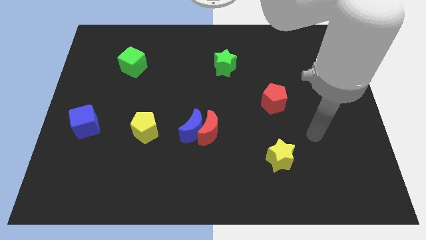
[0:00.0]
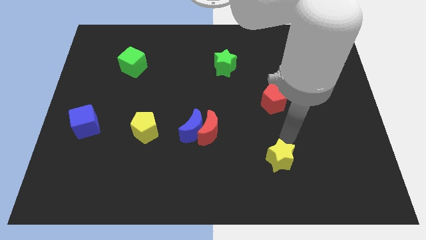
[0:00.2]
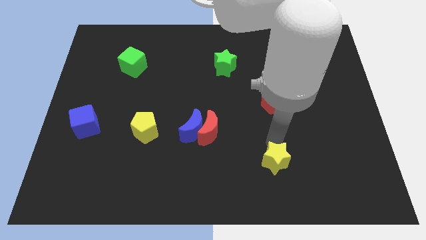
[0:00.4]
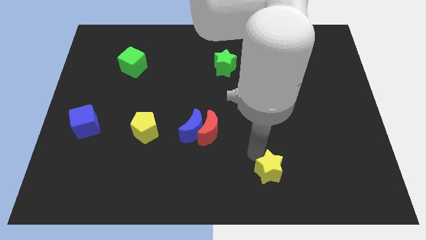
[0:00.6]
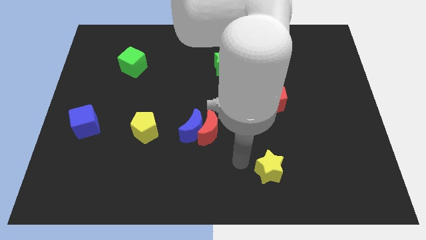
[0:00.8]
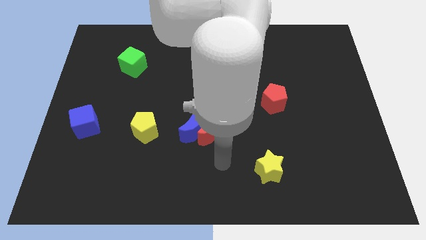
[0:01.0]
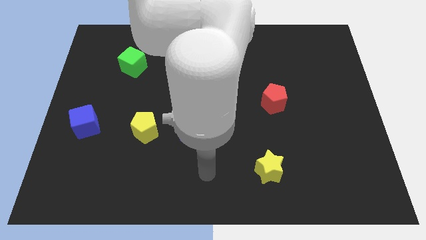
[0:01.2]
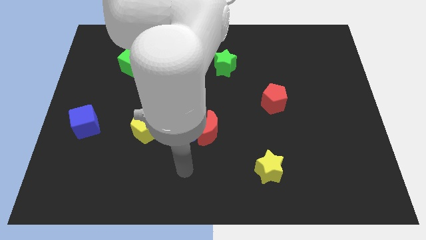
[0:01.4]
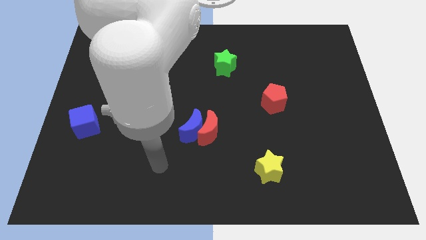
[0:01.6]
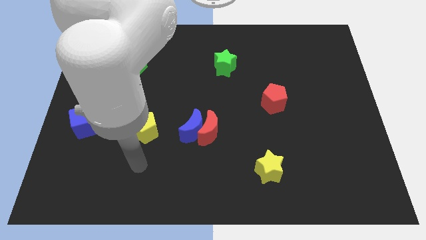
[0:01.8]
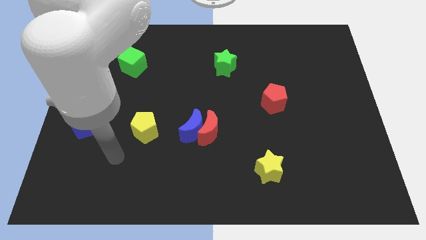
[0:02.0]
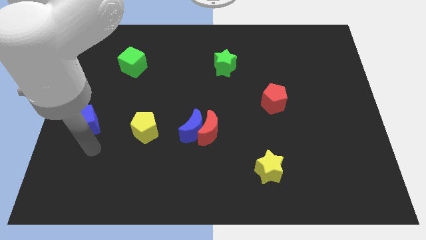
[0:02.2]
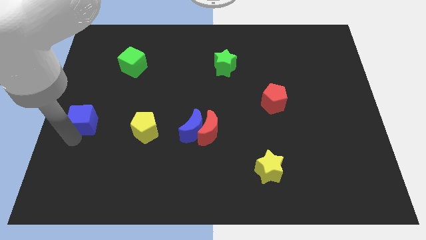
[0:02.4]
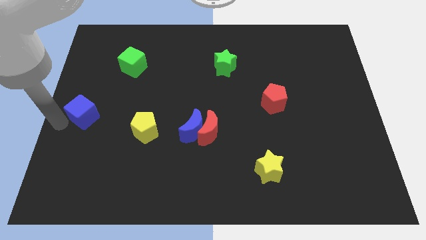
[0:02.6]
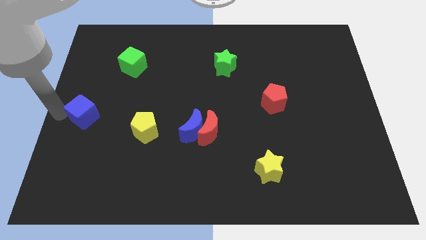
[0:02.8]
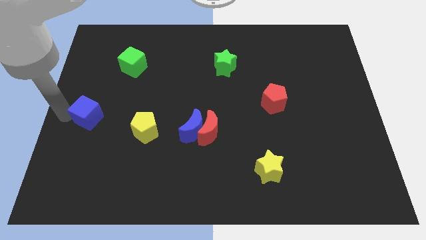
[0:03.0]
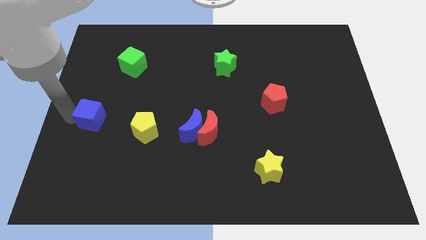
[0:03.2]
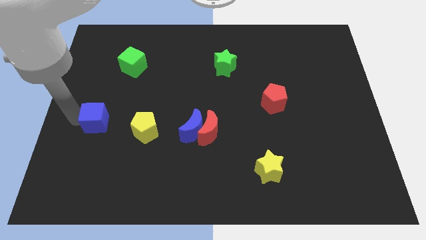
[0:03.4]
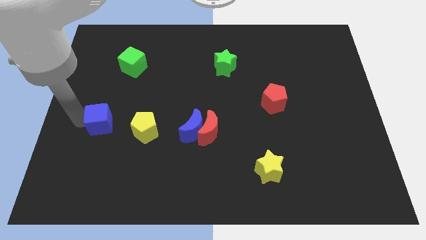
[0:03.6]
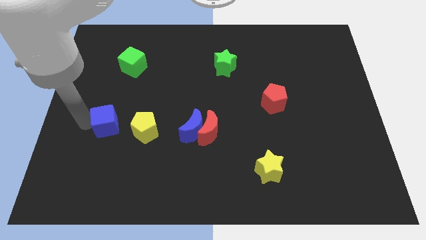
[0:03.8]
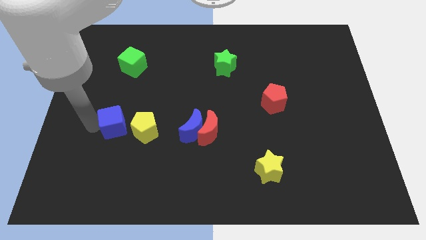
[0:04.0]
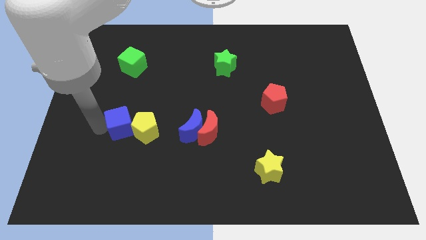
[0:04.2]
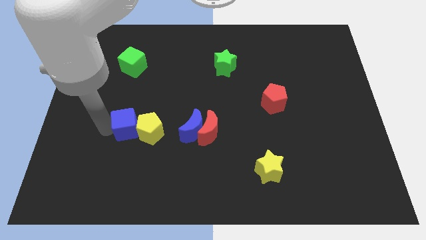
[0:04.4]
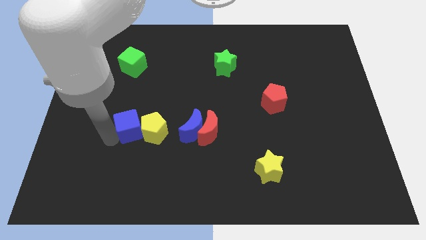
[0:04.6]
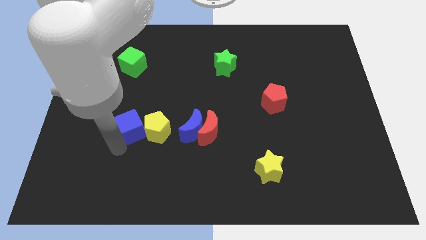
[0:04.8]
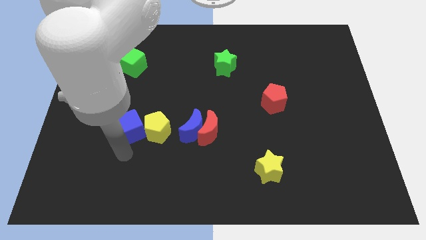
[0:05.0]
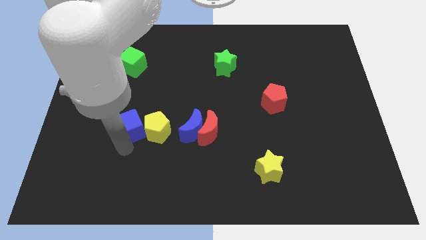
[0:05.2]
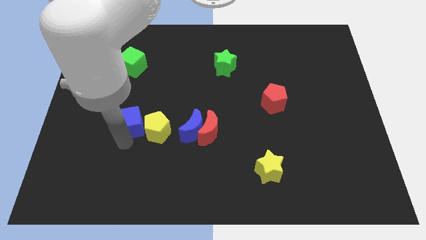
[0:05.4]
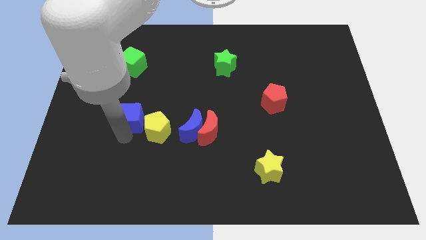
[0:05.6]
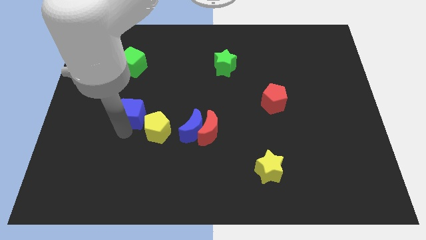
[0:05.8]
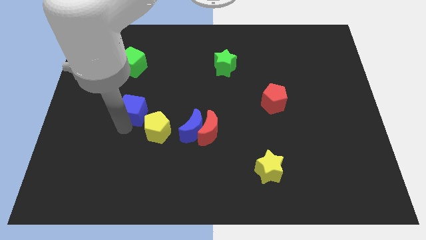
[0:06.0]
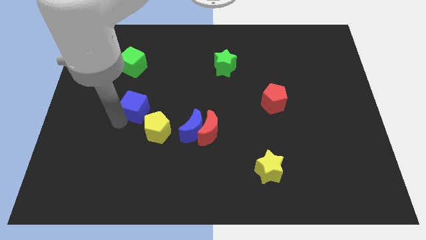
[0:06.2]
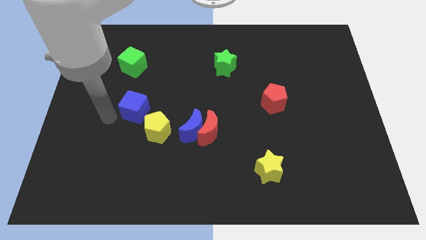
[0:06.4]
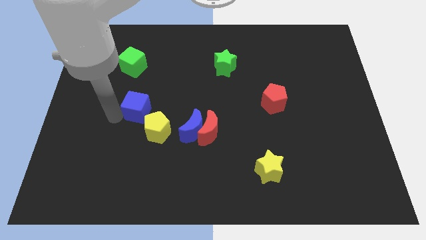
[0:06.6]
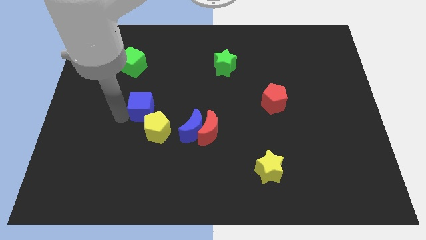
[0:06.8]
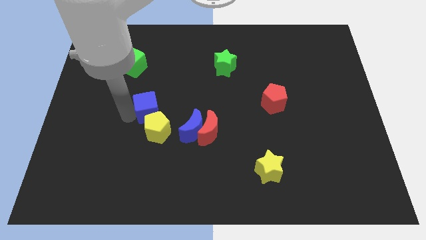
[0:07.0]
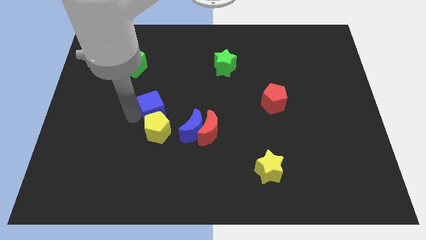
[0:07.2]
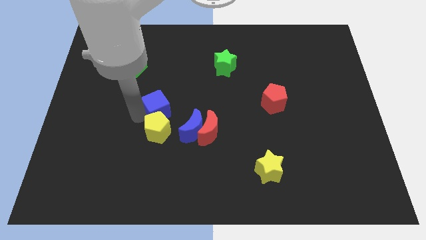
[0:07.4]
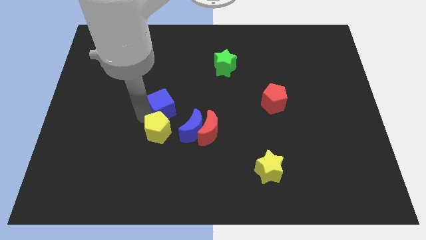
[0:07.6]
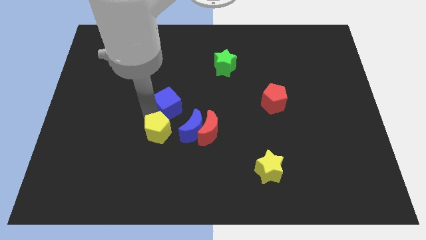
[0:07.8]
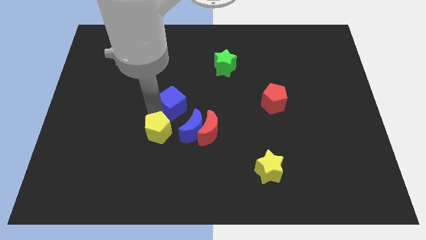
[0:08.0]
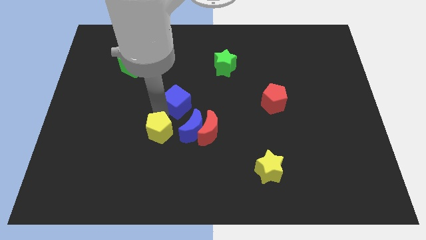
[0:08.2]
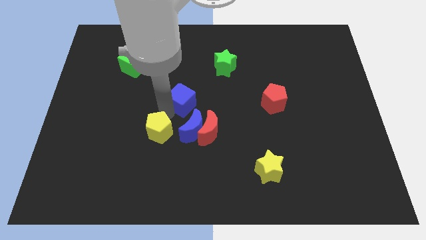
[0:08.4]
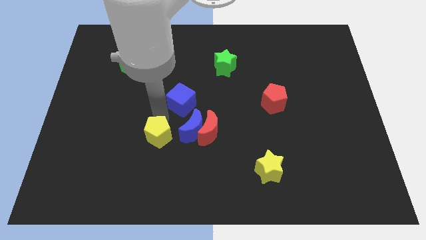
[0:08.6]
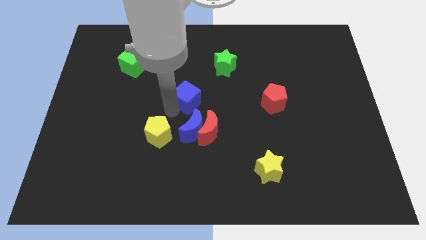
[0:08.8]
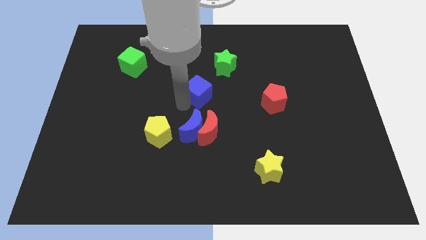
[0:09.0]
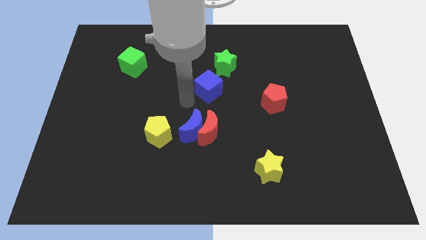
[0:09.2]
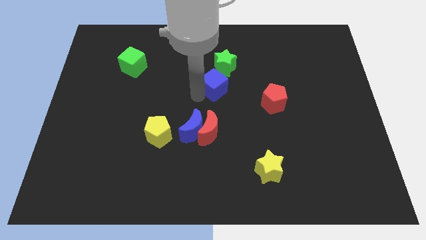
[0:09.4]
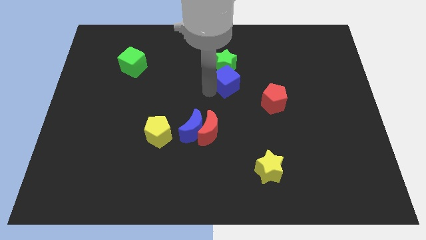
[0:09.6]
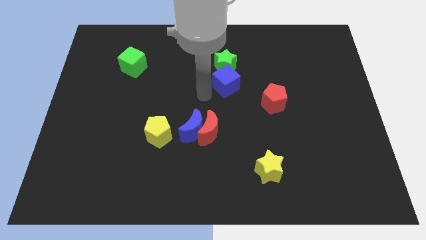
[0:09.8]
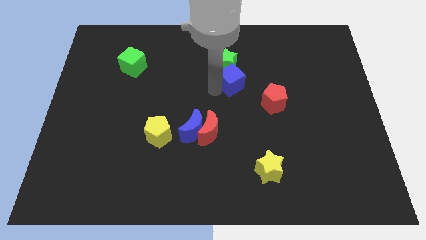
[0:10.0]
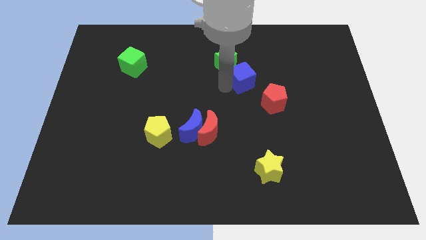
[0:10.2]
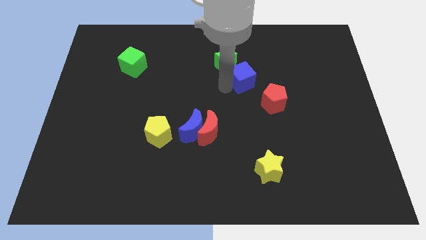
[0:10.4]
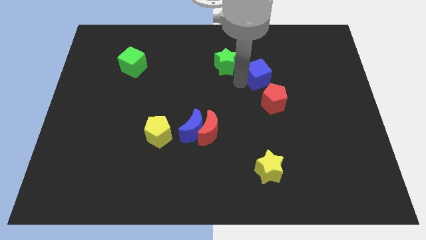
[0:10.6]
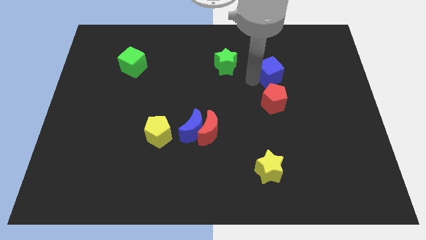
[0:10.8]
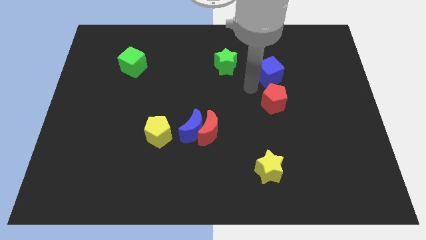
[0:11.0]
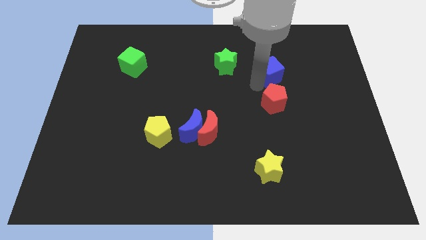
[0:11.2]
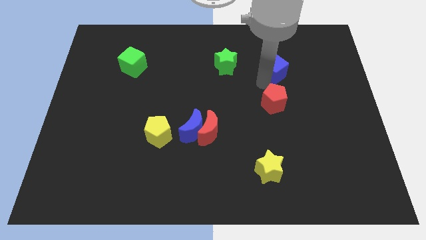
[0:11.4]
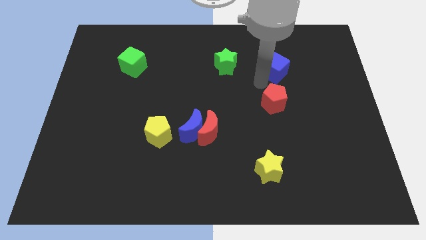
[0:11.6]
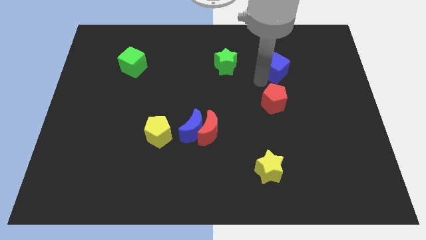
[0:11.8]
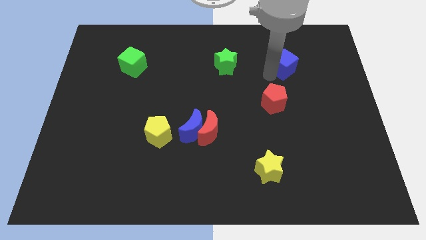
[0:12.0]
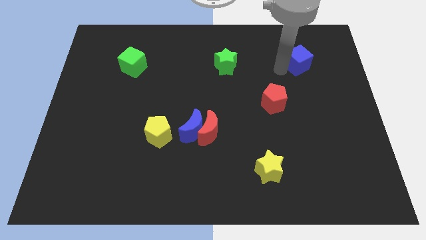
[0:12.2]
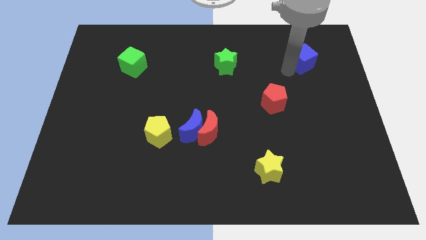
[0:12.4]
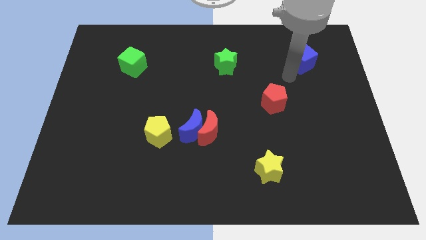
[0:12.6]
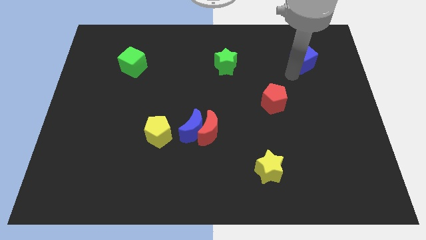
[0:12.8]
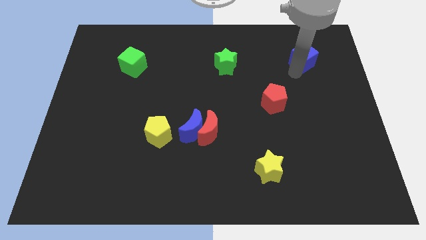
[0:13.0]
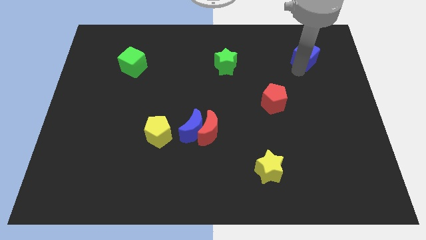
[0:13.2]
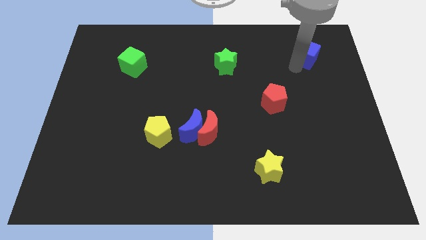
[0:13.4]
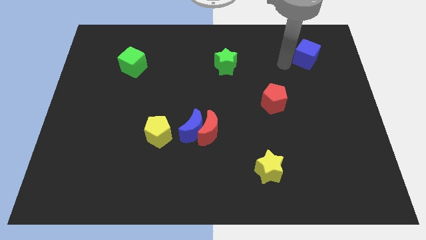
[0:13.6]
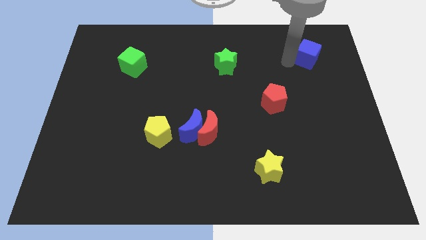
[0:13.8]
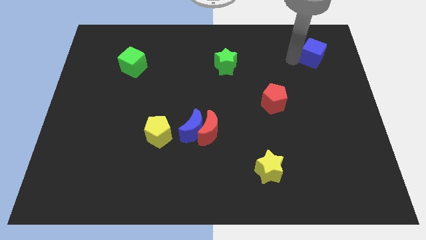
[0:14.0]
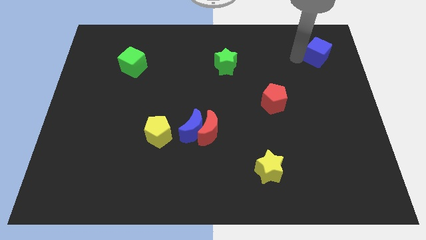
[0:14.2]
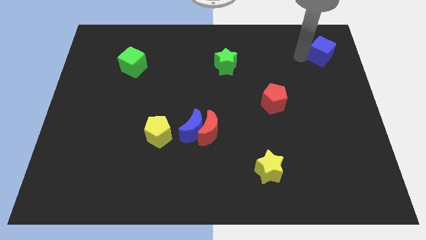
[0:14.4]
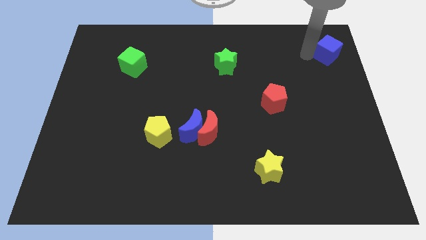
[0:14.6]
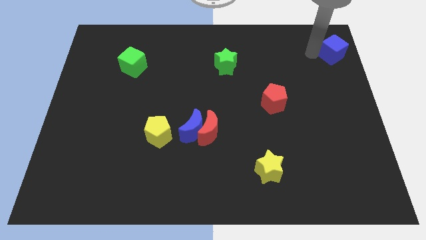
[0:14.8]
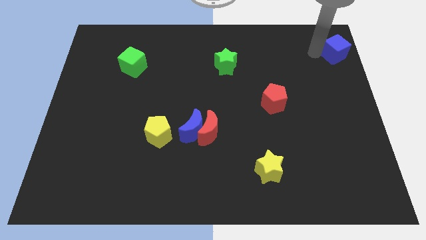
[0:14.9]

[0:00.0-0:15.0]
move the blue cube to the top right
